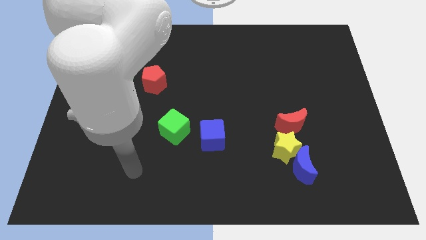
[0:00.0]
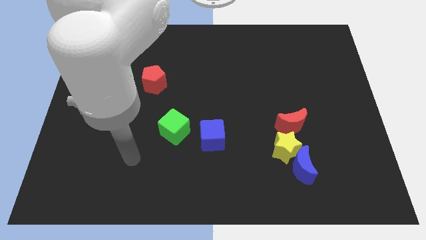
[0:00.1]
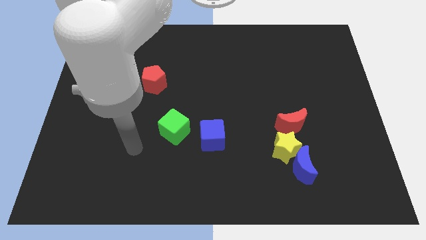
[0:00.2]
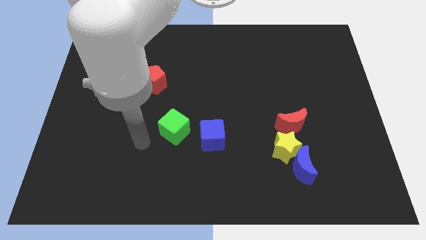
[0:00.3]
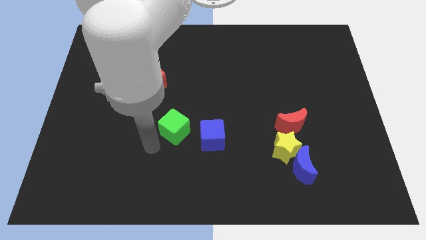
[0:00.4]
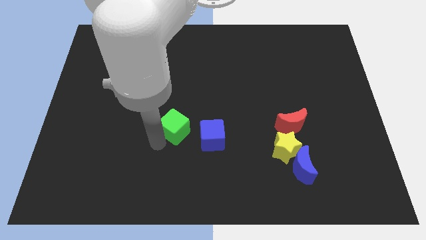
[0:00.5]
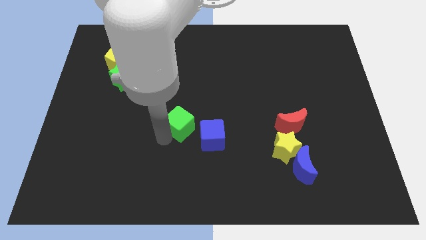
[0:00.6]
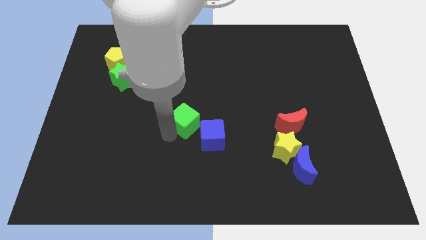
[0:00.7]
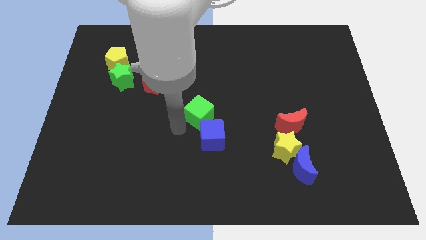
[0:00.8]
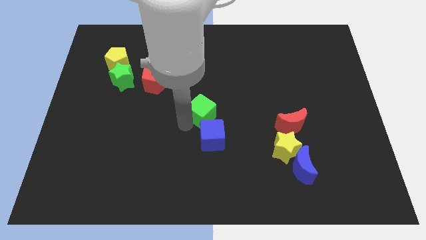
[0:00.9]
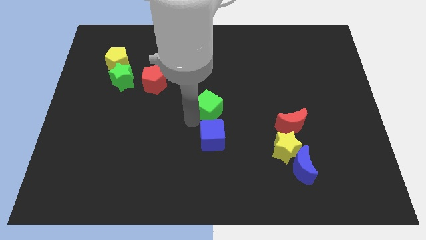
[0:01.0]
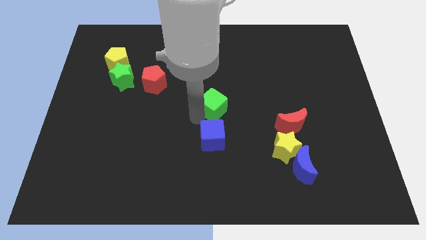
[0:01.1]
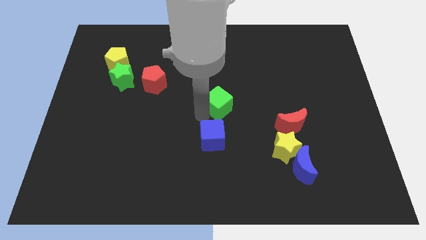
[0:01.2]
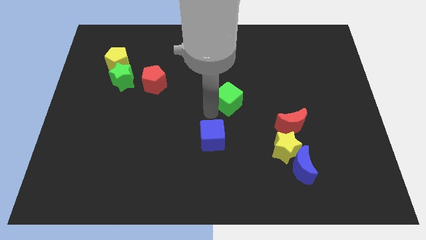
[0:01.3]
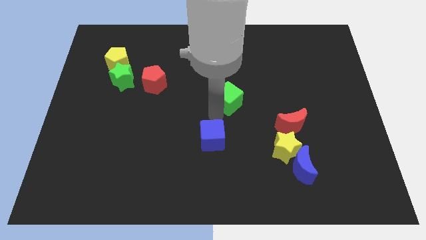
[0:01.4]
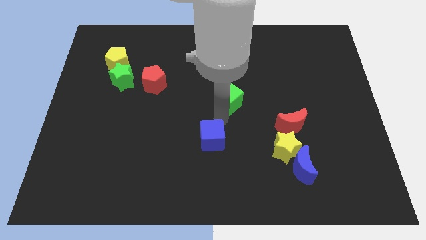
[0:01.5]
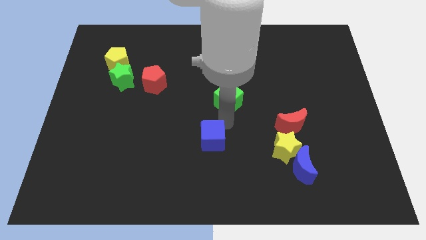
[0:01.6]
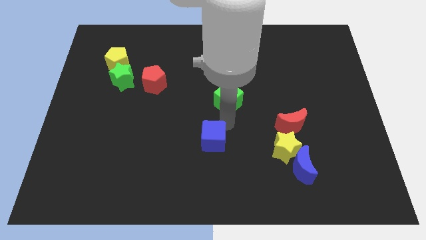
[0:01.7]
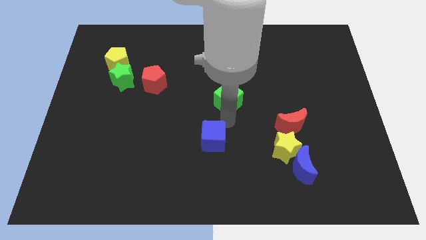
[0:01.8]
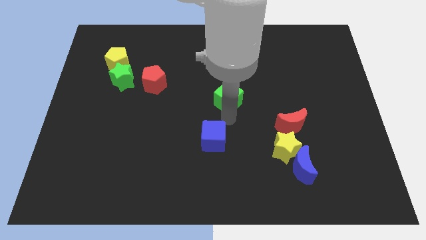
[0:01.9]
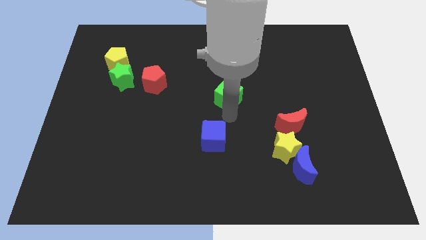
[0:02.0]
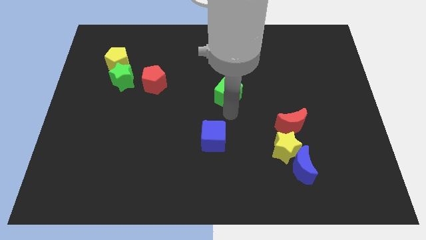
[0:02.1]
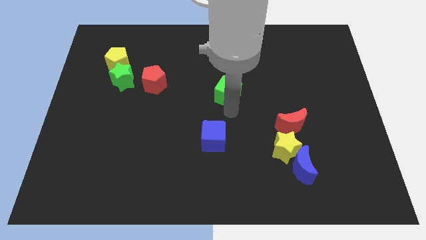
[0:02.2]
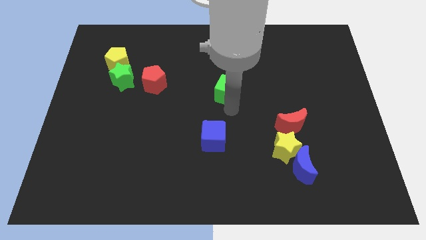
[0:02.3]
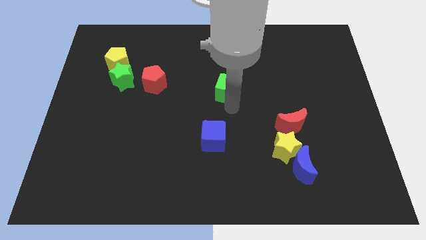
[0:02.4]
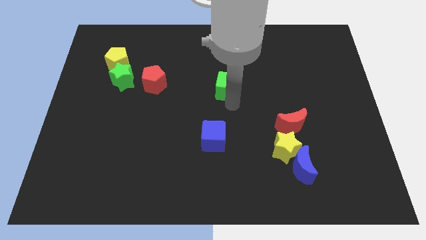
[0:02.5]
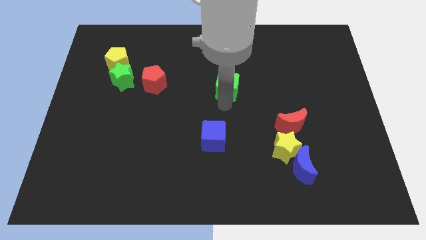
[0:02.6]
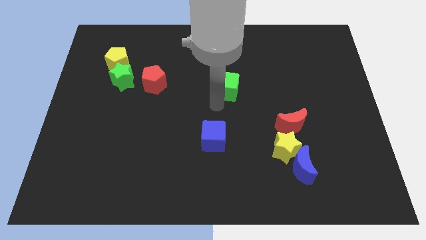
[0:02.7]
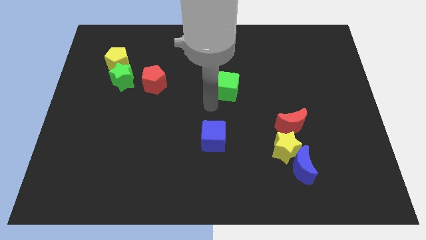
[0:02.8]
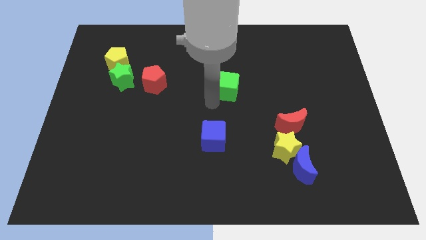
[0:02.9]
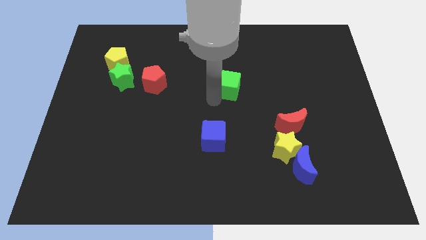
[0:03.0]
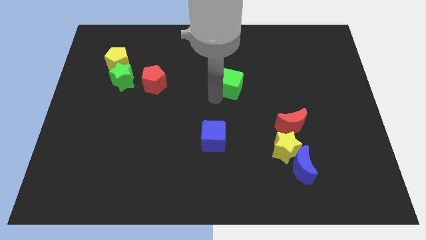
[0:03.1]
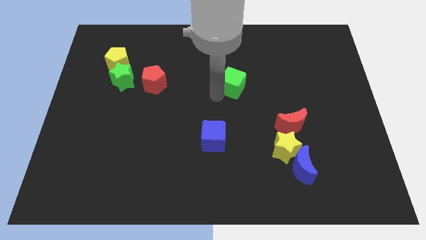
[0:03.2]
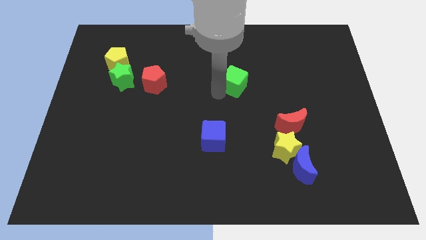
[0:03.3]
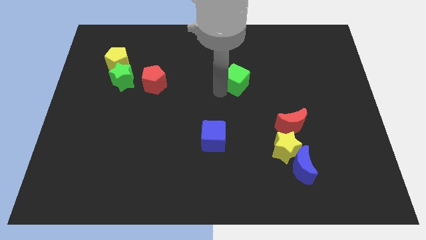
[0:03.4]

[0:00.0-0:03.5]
push the green cube up and then to the right

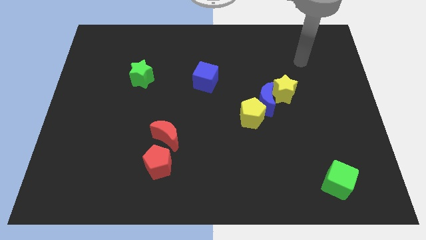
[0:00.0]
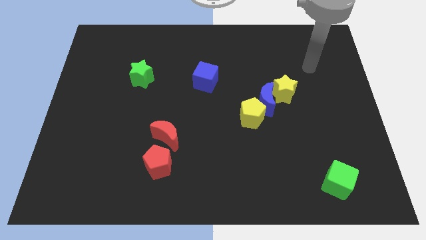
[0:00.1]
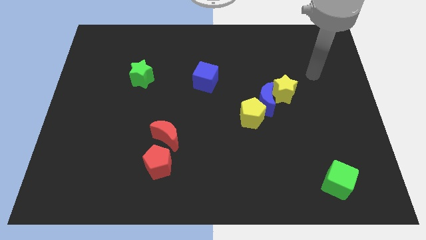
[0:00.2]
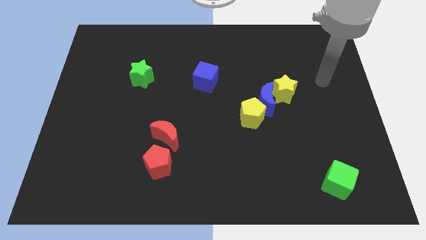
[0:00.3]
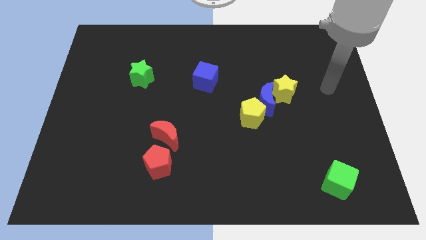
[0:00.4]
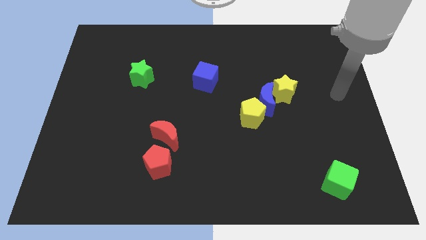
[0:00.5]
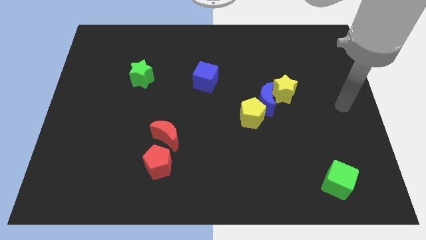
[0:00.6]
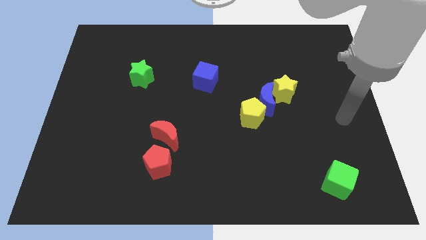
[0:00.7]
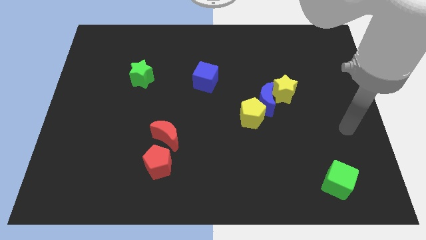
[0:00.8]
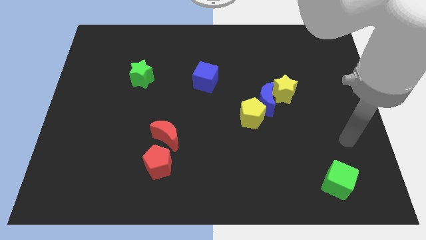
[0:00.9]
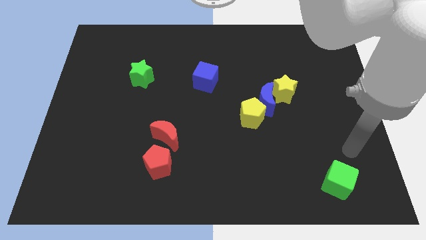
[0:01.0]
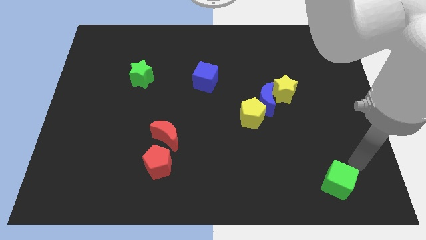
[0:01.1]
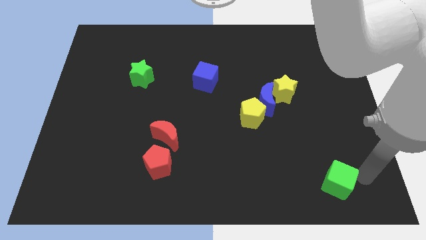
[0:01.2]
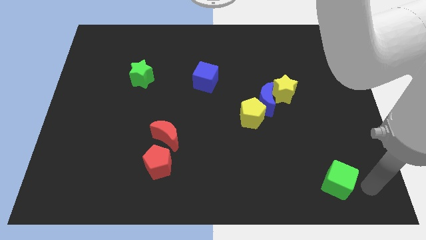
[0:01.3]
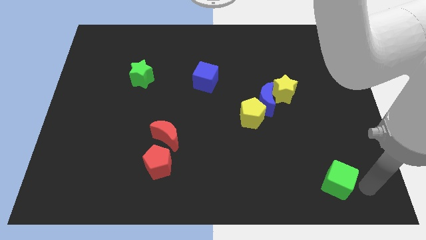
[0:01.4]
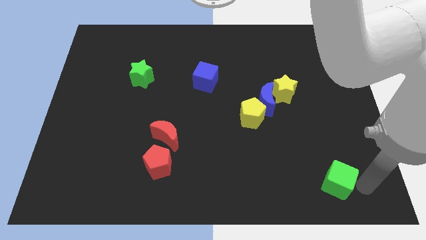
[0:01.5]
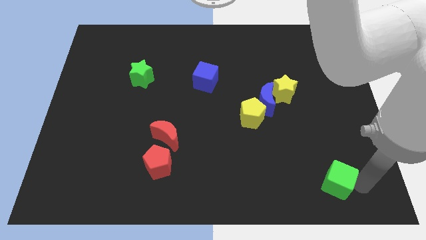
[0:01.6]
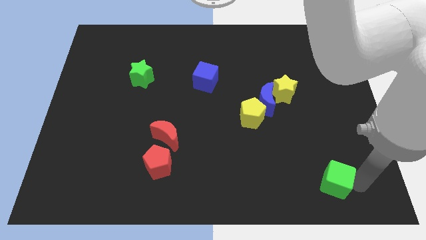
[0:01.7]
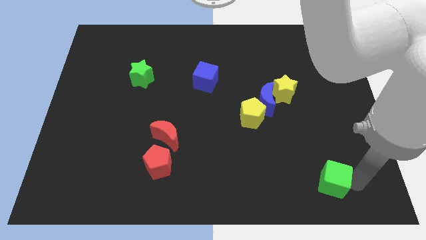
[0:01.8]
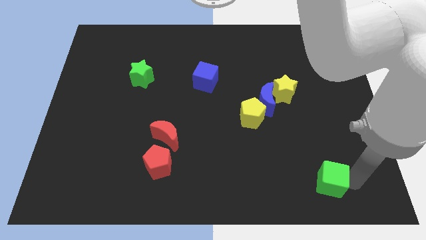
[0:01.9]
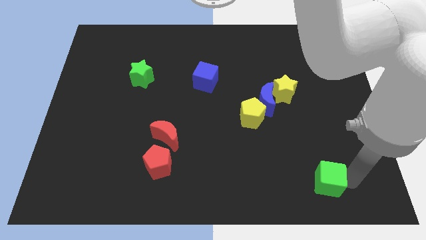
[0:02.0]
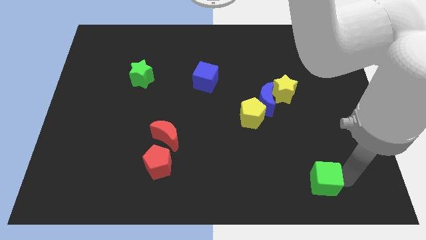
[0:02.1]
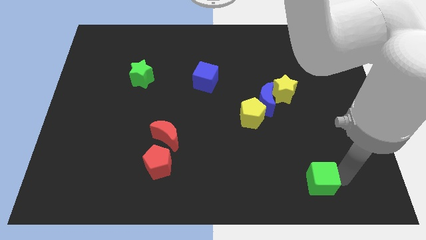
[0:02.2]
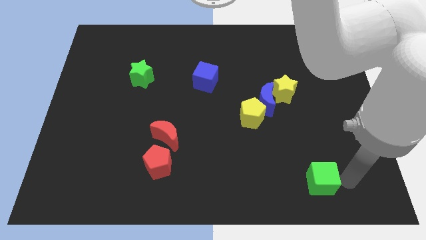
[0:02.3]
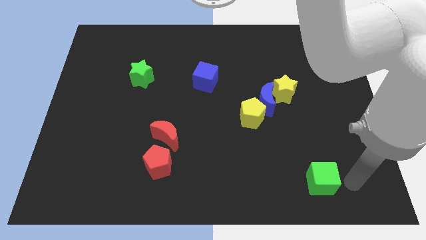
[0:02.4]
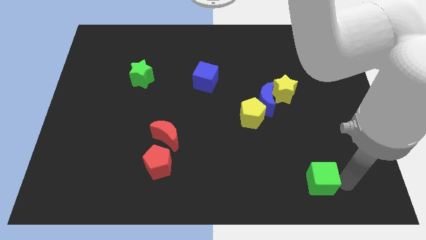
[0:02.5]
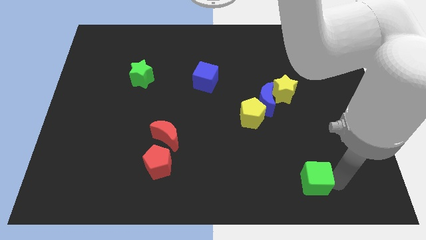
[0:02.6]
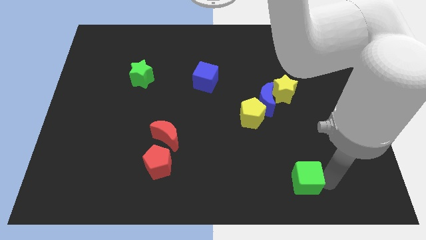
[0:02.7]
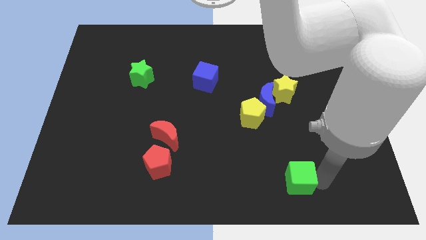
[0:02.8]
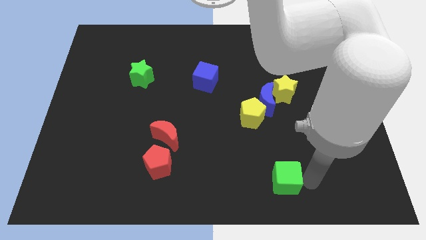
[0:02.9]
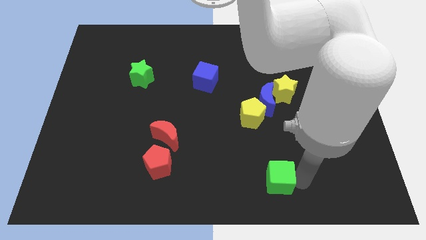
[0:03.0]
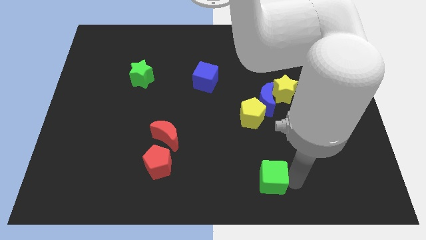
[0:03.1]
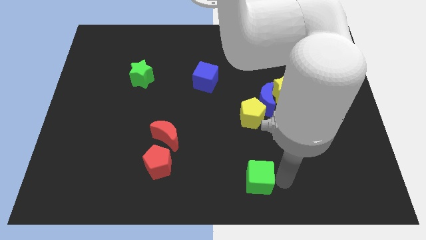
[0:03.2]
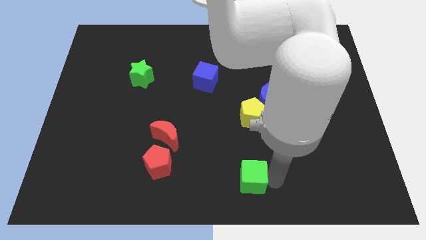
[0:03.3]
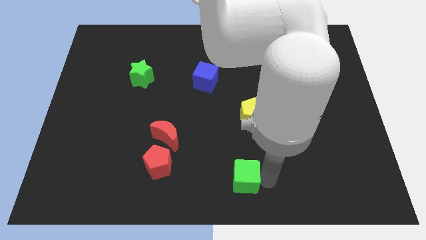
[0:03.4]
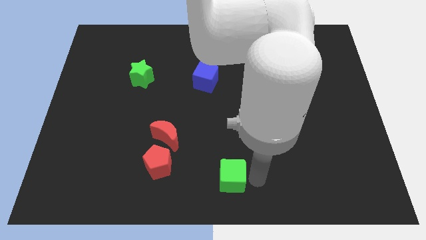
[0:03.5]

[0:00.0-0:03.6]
slide the green cube to the left

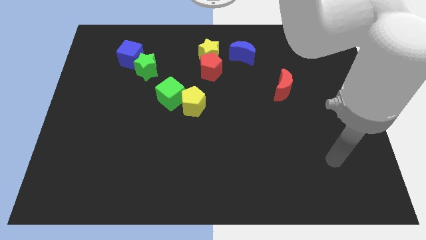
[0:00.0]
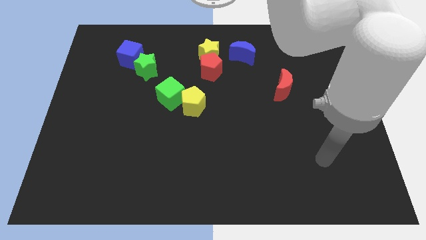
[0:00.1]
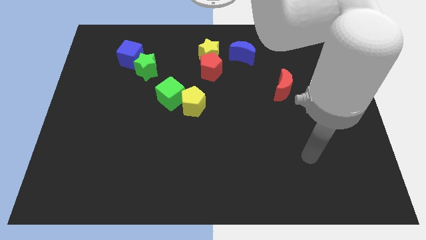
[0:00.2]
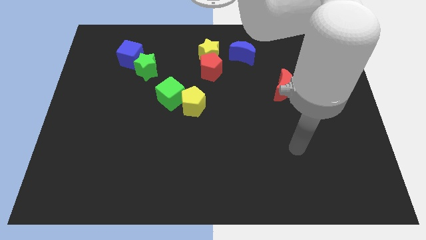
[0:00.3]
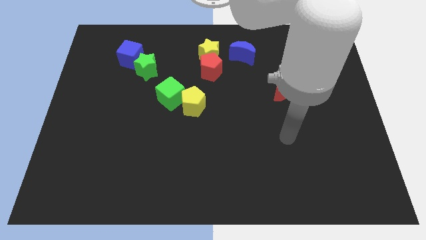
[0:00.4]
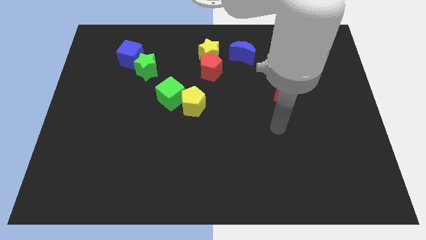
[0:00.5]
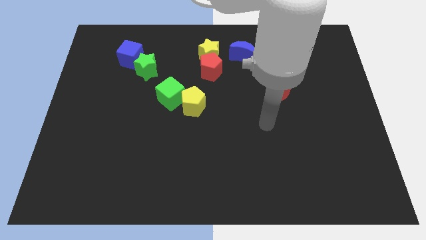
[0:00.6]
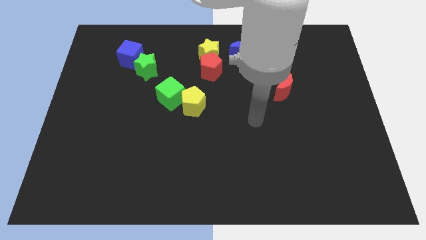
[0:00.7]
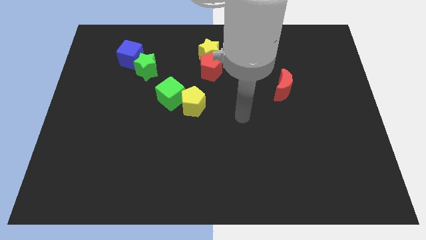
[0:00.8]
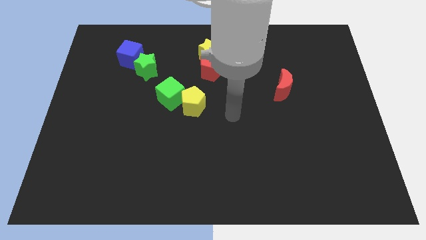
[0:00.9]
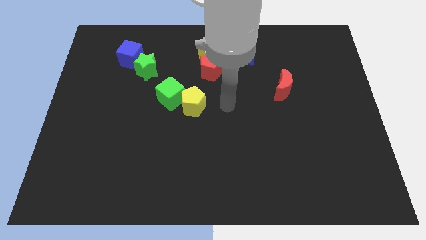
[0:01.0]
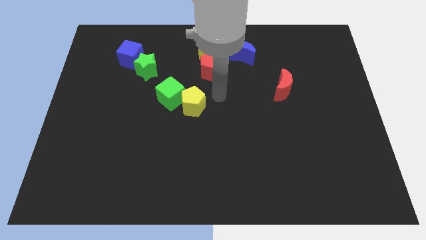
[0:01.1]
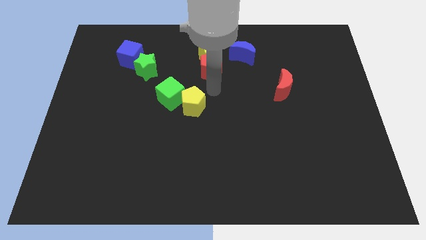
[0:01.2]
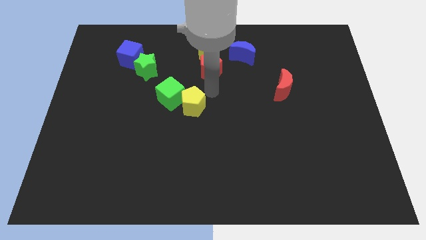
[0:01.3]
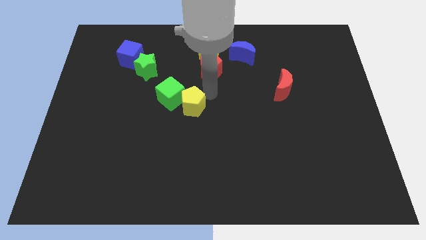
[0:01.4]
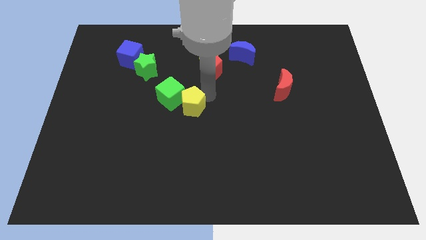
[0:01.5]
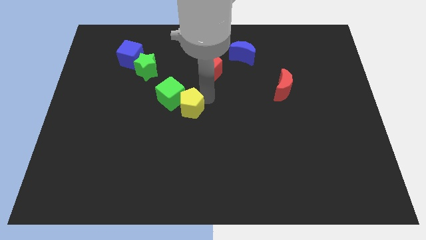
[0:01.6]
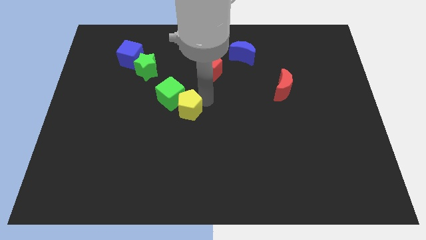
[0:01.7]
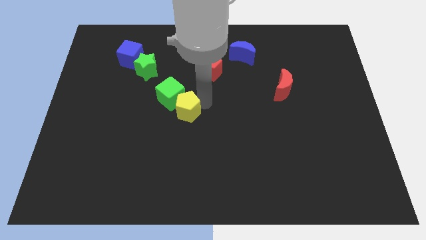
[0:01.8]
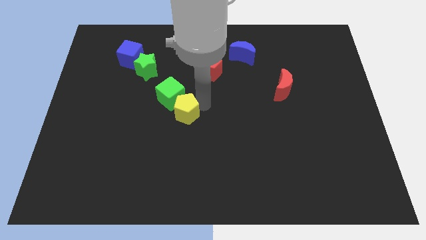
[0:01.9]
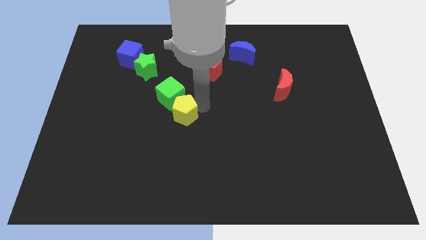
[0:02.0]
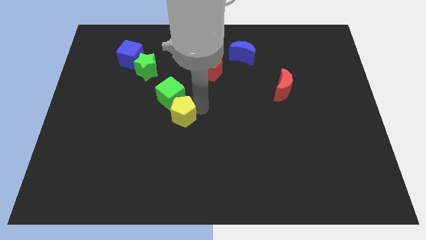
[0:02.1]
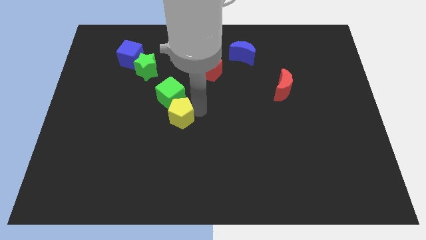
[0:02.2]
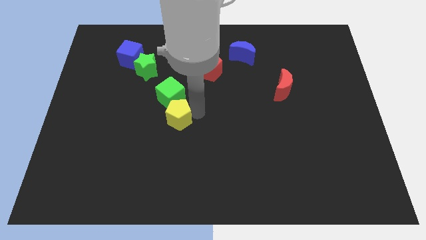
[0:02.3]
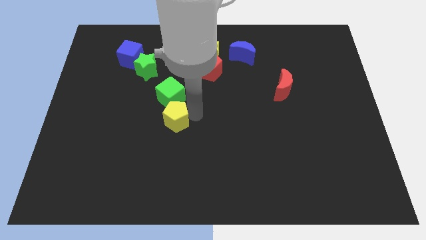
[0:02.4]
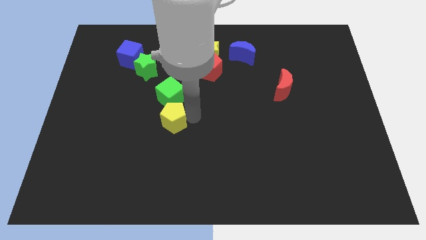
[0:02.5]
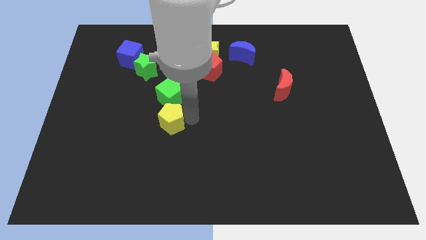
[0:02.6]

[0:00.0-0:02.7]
move the yellow pentagon somewhat diagonally down and left
